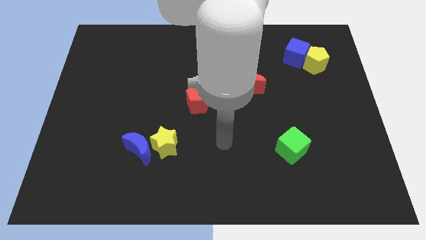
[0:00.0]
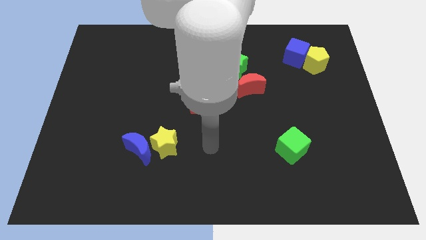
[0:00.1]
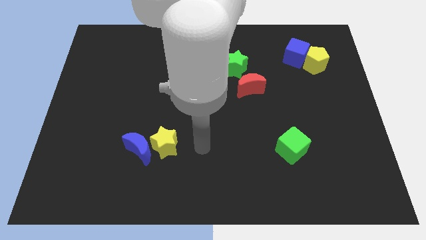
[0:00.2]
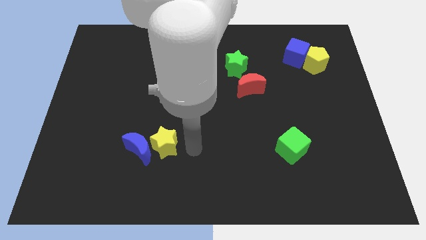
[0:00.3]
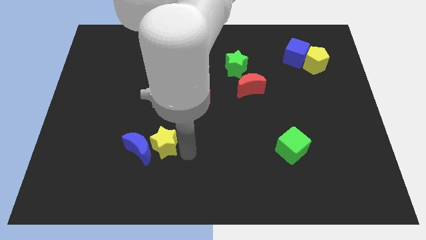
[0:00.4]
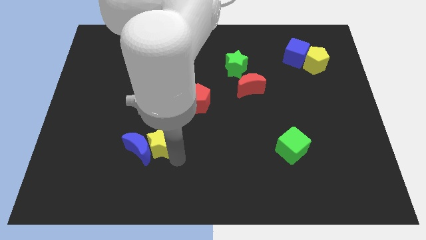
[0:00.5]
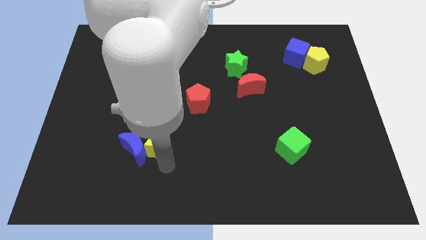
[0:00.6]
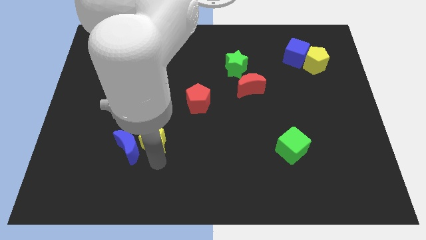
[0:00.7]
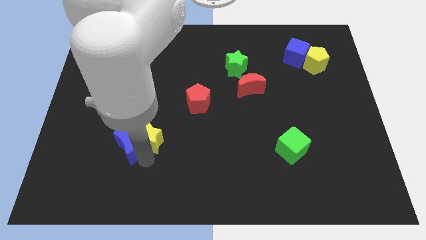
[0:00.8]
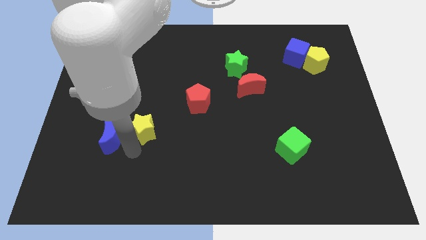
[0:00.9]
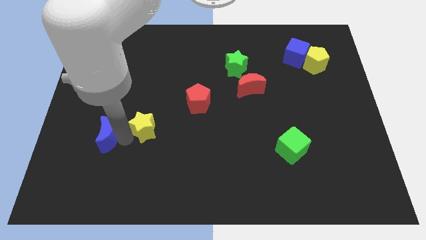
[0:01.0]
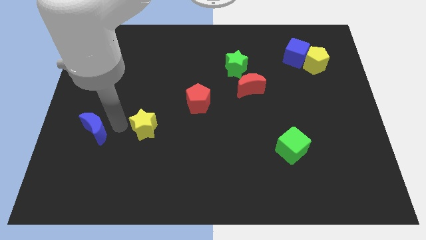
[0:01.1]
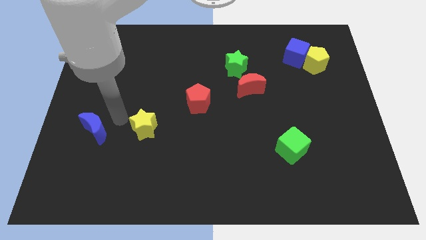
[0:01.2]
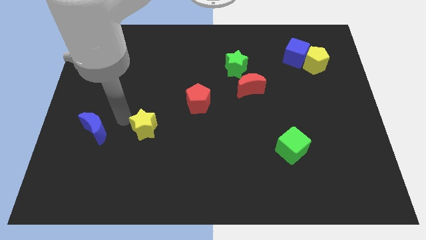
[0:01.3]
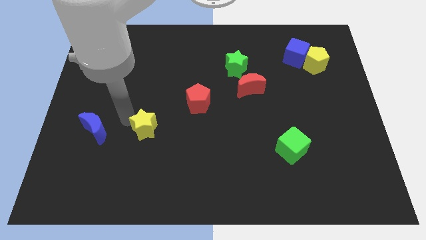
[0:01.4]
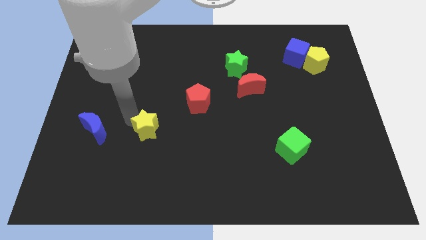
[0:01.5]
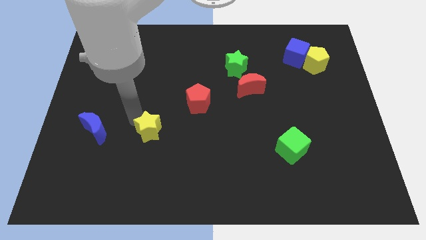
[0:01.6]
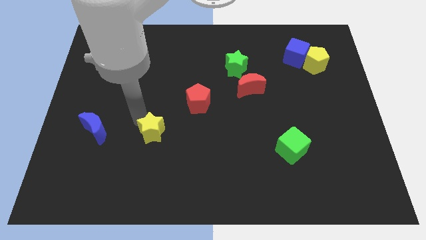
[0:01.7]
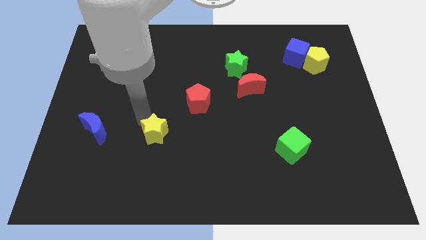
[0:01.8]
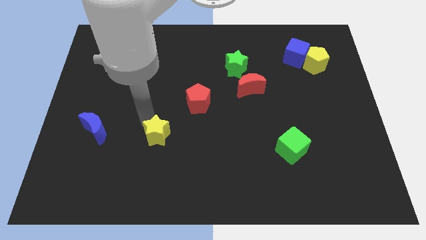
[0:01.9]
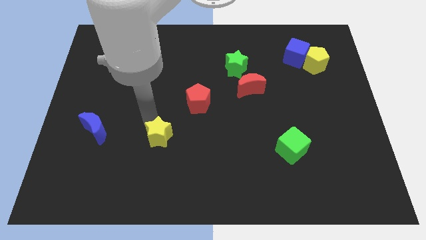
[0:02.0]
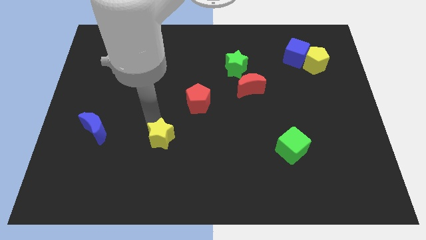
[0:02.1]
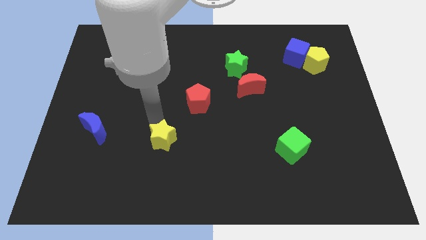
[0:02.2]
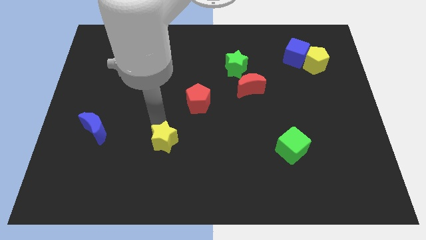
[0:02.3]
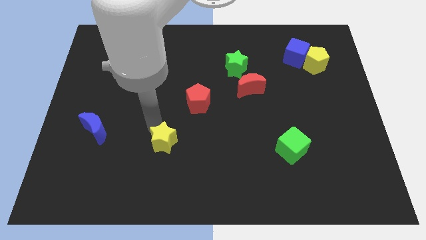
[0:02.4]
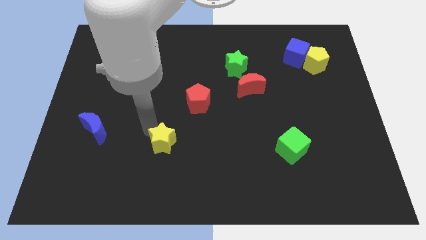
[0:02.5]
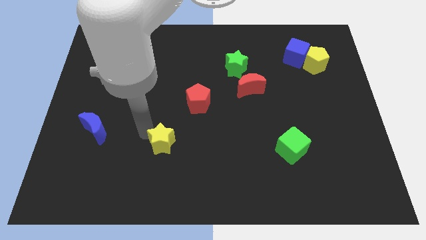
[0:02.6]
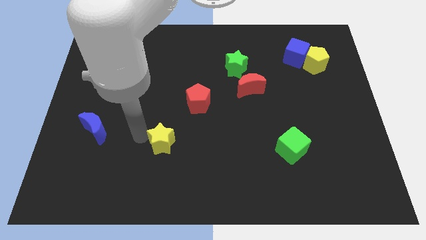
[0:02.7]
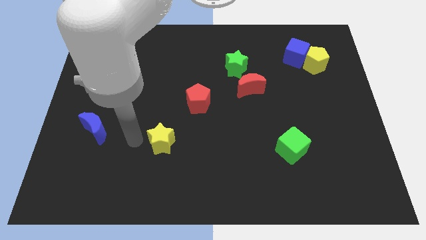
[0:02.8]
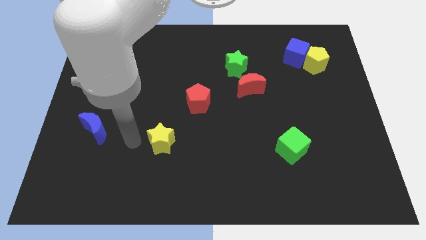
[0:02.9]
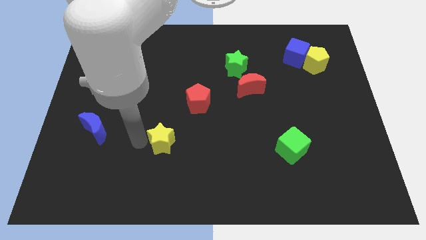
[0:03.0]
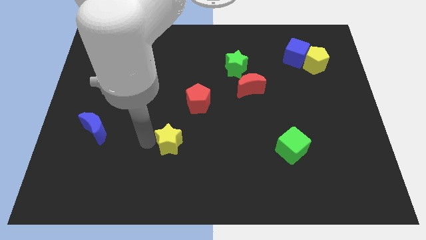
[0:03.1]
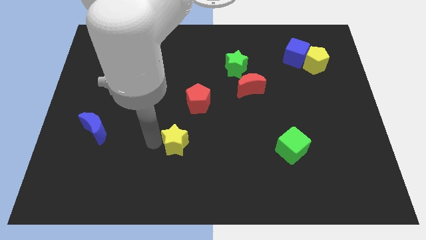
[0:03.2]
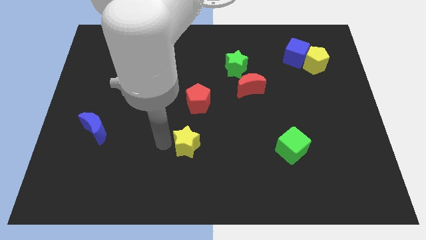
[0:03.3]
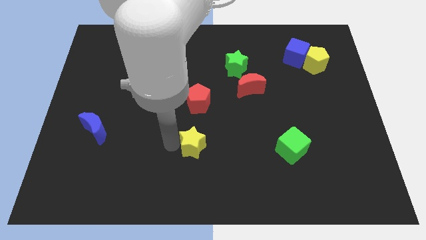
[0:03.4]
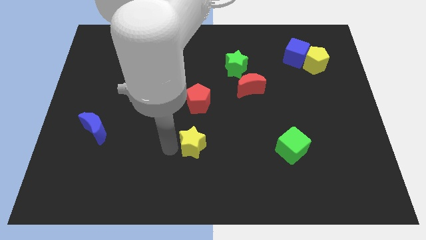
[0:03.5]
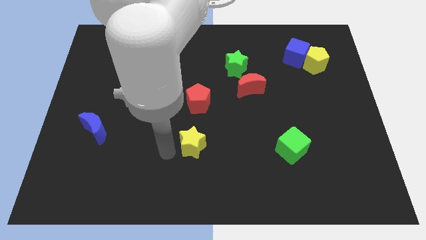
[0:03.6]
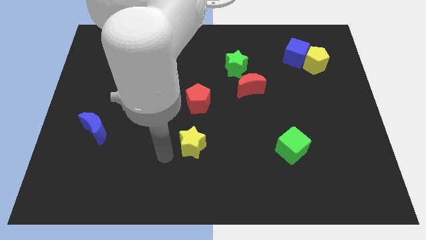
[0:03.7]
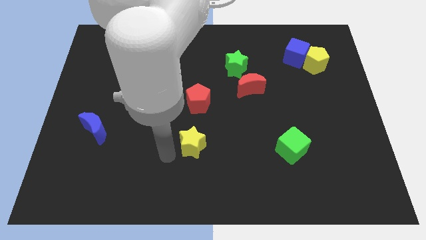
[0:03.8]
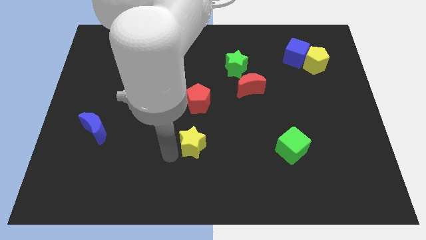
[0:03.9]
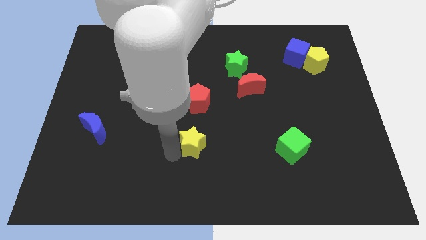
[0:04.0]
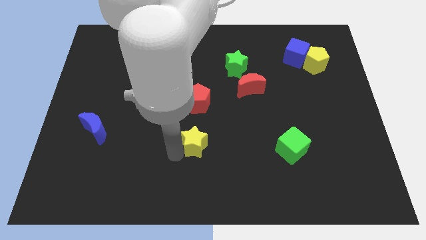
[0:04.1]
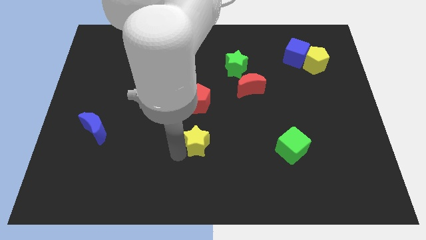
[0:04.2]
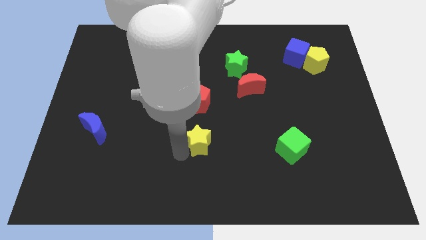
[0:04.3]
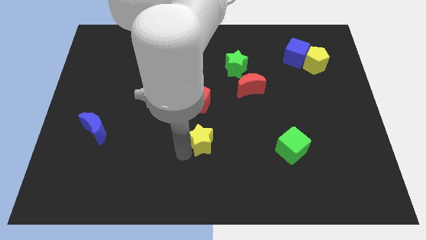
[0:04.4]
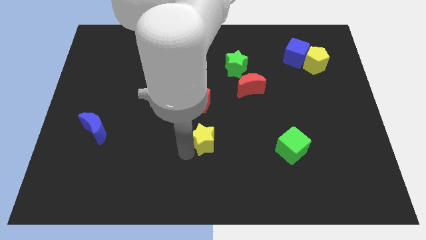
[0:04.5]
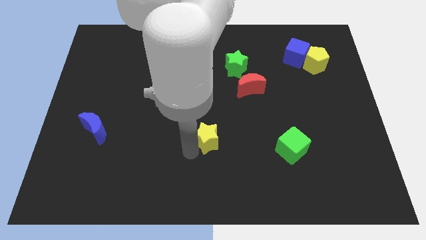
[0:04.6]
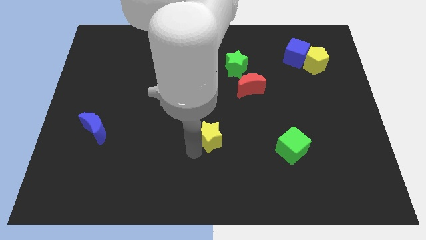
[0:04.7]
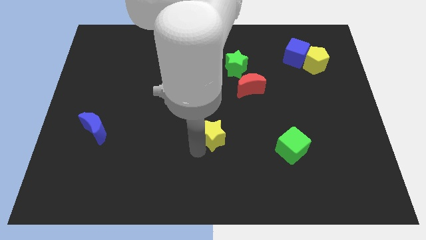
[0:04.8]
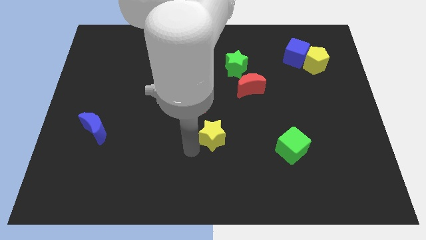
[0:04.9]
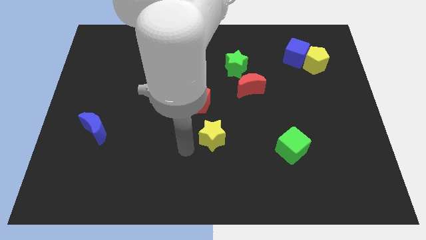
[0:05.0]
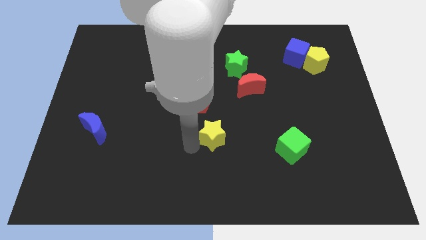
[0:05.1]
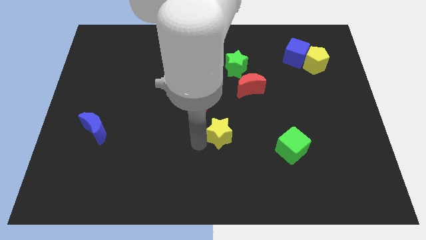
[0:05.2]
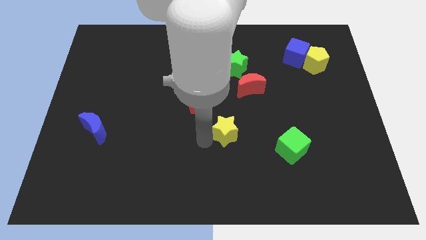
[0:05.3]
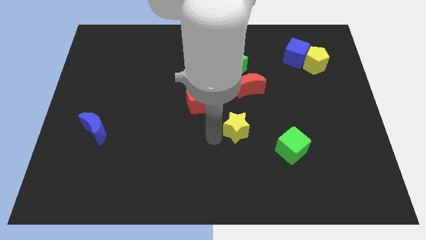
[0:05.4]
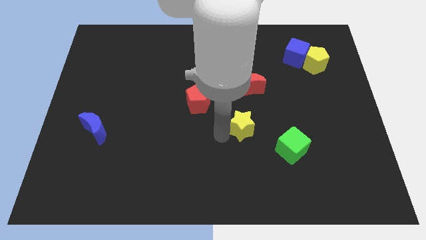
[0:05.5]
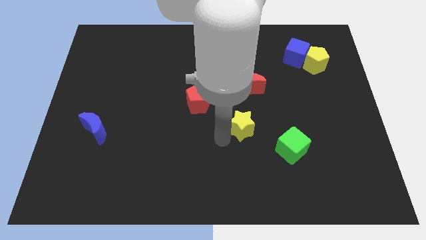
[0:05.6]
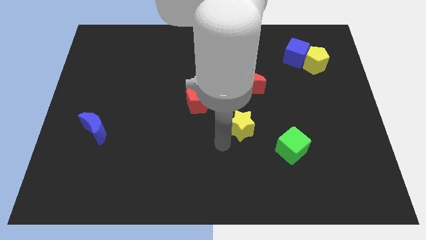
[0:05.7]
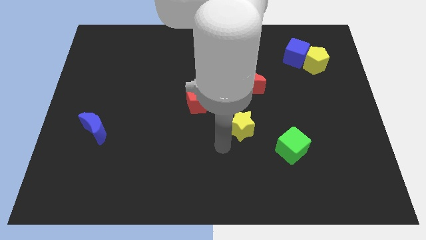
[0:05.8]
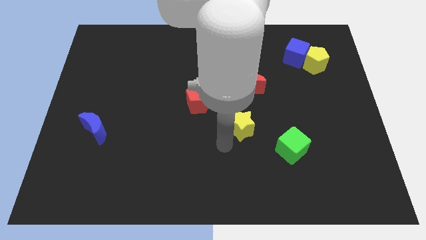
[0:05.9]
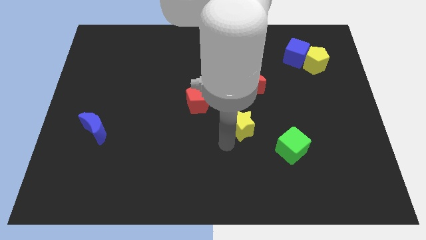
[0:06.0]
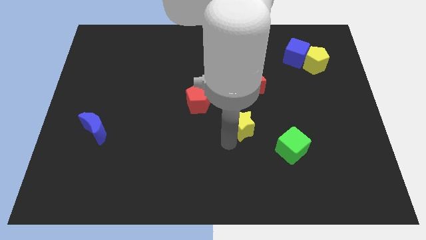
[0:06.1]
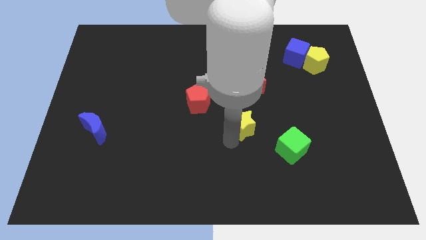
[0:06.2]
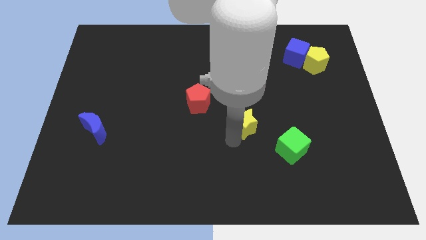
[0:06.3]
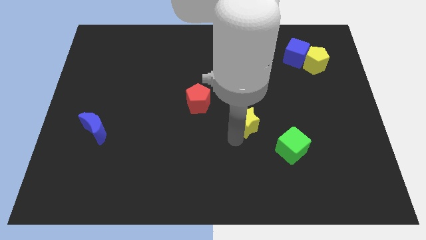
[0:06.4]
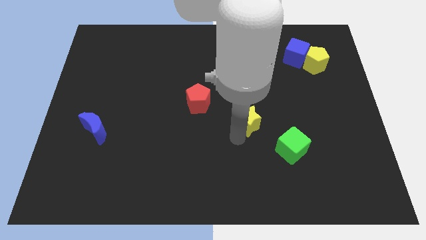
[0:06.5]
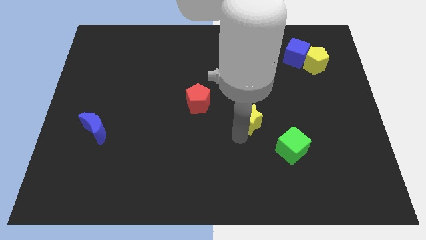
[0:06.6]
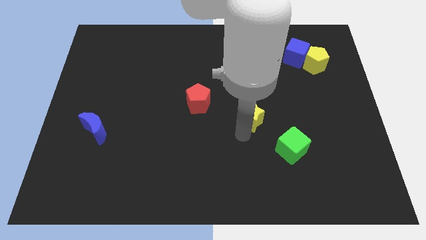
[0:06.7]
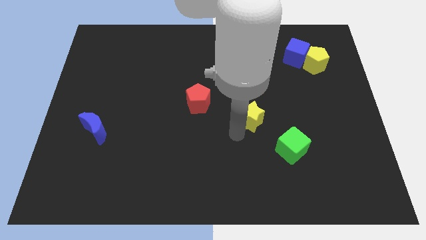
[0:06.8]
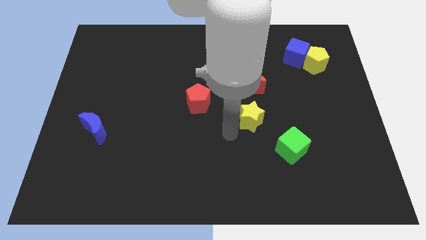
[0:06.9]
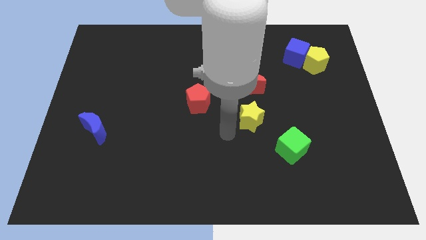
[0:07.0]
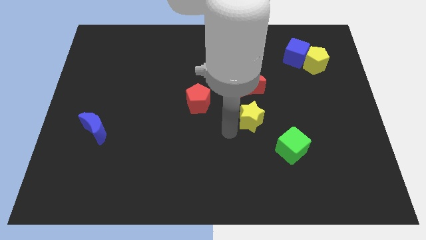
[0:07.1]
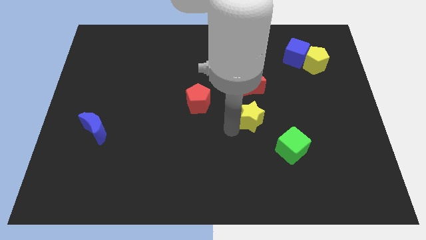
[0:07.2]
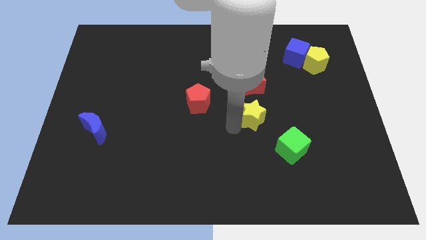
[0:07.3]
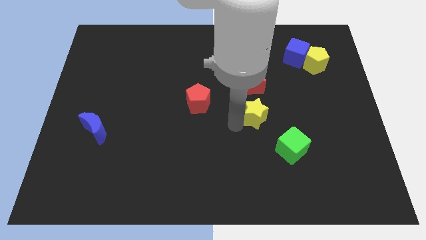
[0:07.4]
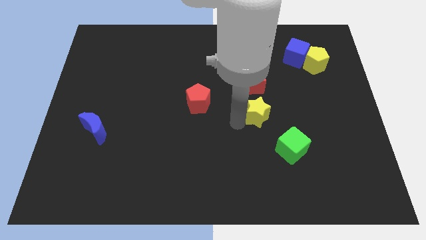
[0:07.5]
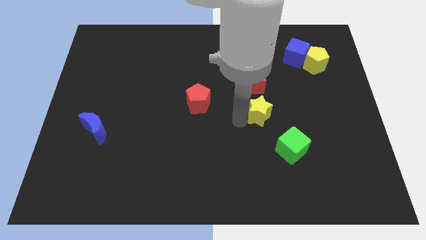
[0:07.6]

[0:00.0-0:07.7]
slide the yellow star diagonally down and to the right of the red moon
